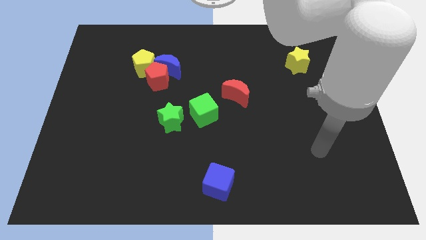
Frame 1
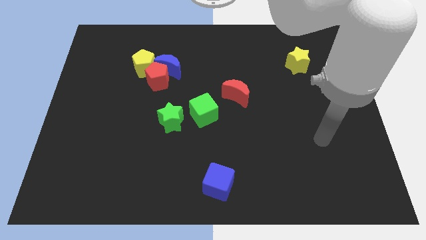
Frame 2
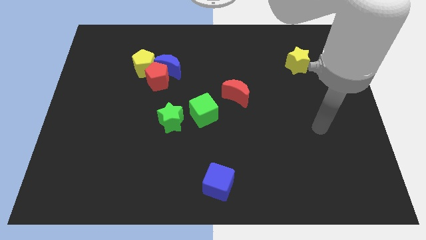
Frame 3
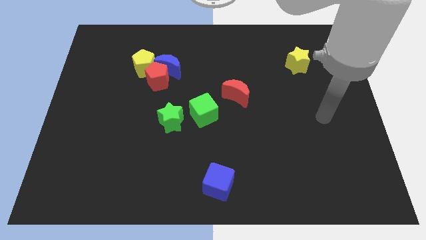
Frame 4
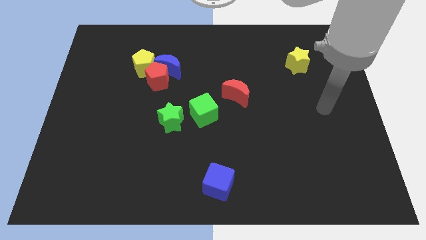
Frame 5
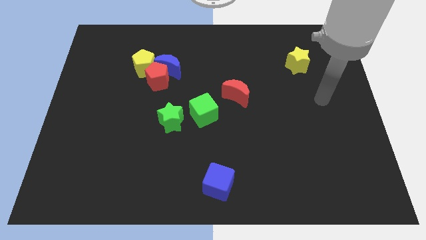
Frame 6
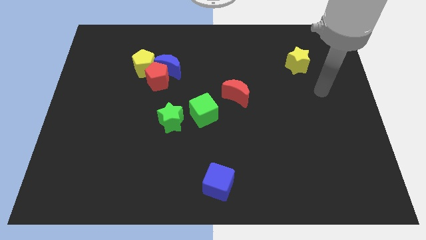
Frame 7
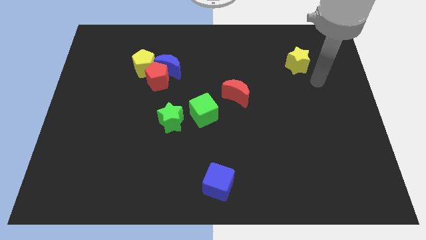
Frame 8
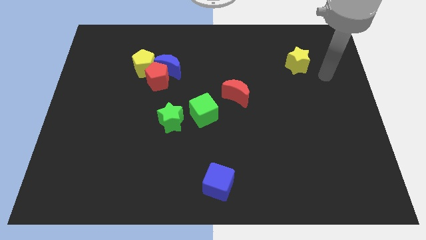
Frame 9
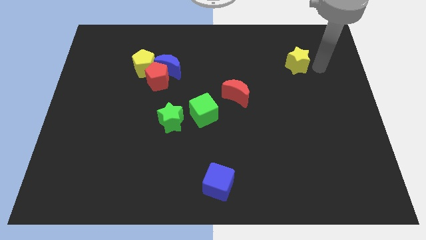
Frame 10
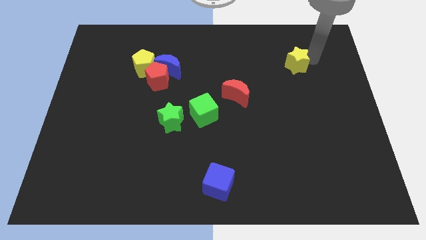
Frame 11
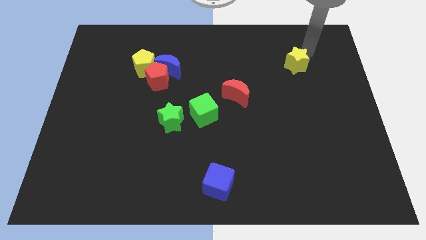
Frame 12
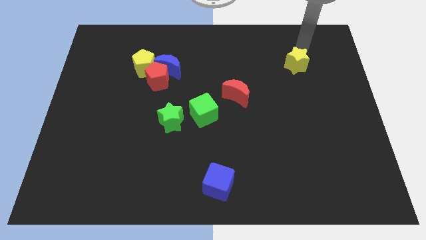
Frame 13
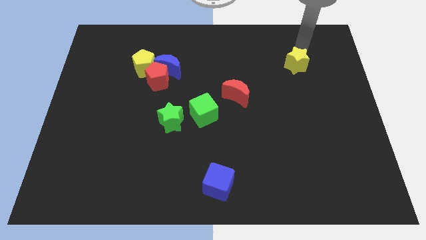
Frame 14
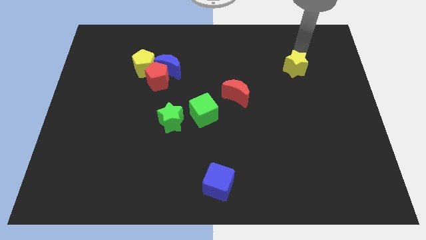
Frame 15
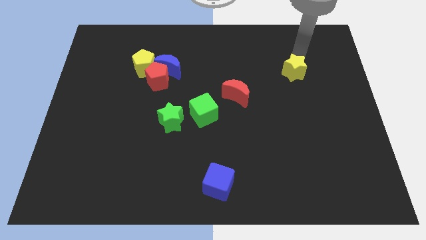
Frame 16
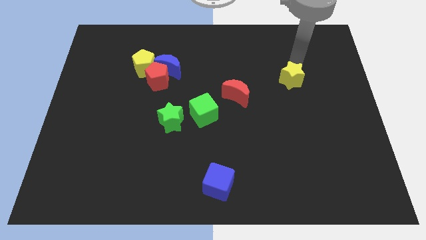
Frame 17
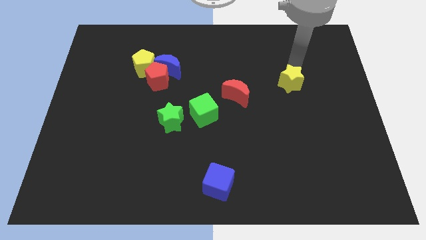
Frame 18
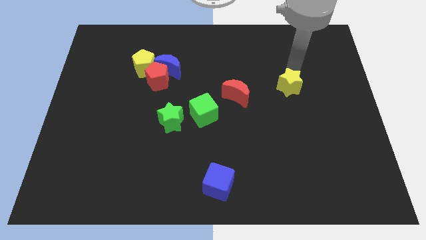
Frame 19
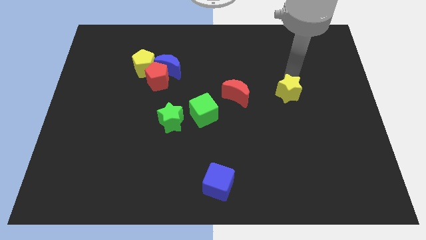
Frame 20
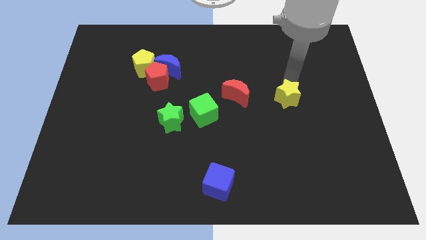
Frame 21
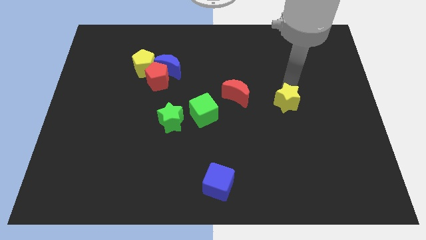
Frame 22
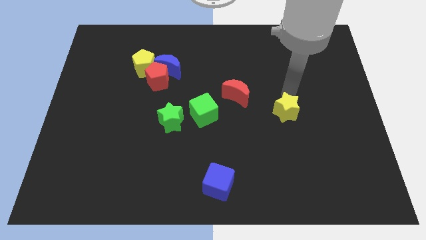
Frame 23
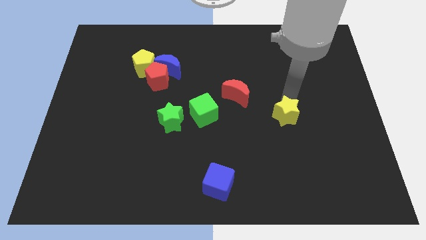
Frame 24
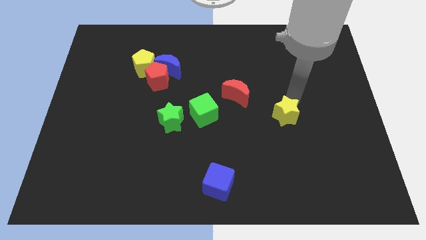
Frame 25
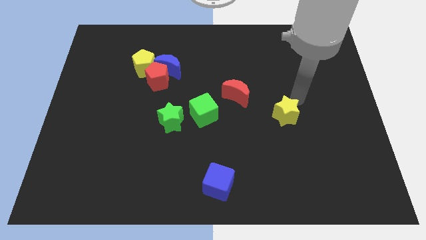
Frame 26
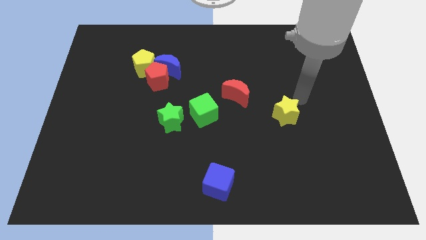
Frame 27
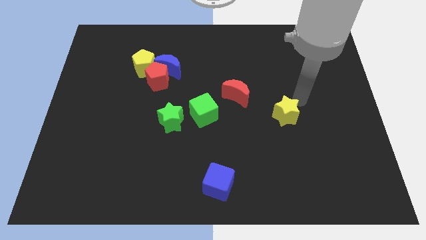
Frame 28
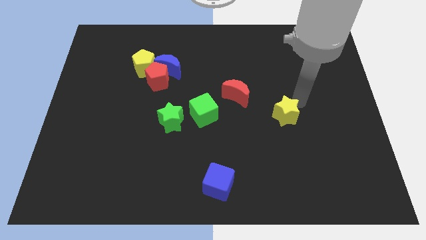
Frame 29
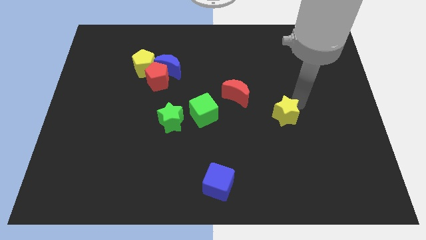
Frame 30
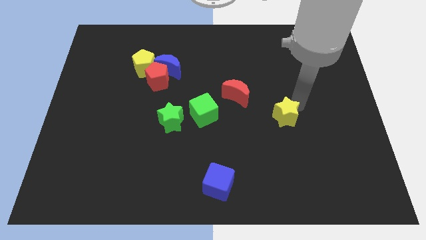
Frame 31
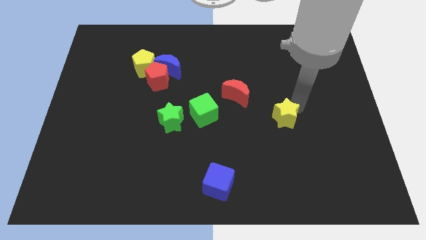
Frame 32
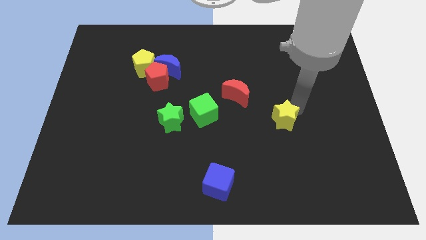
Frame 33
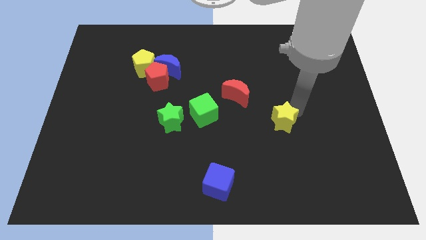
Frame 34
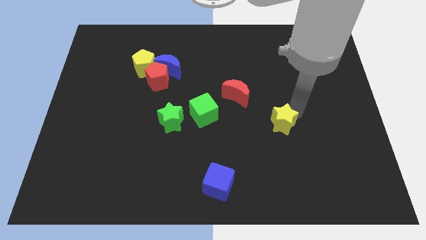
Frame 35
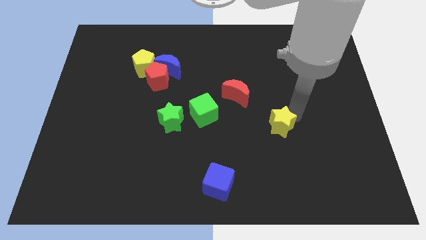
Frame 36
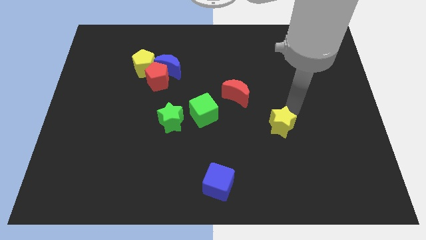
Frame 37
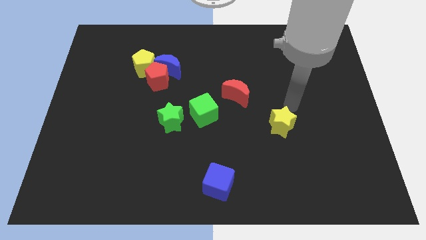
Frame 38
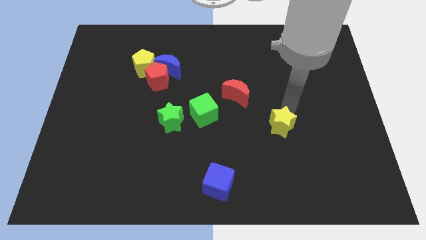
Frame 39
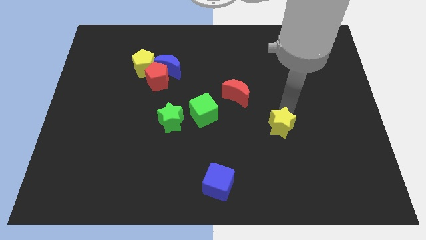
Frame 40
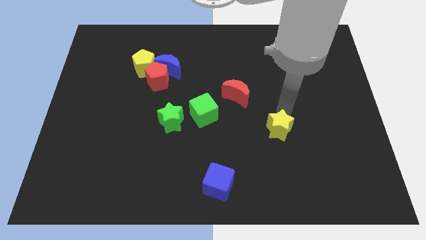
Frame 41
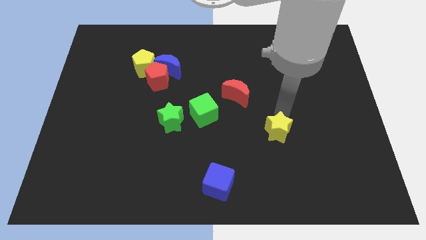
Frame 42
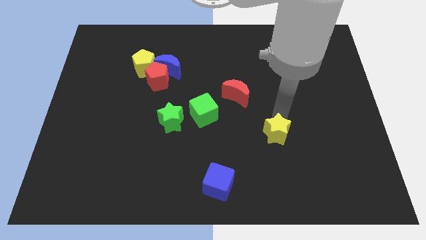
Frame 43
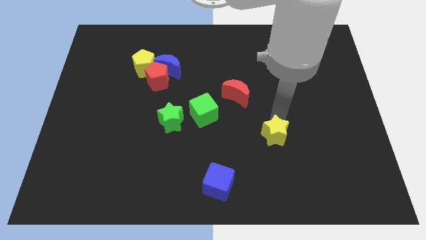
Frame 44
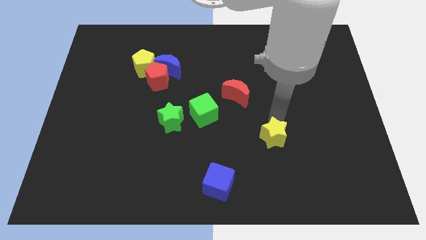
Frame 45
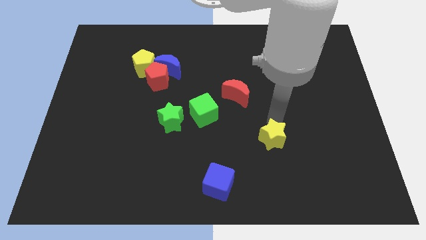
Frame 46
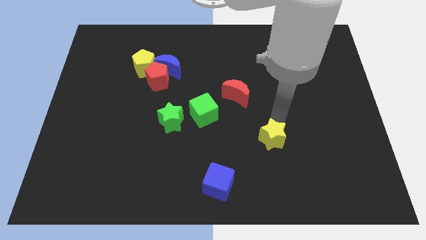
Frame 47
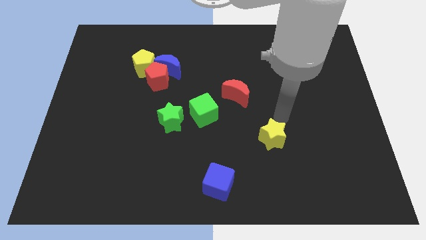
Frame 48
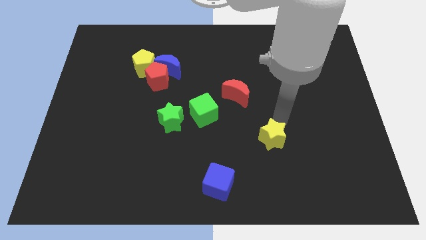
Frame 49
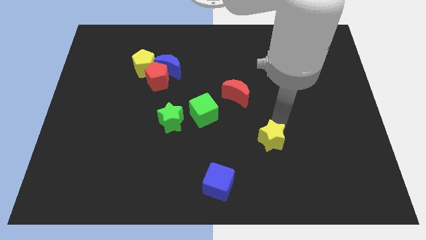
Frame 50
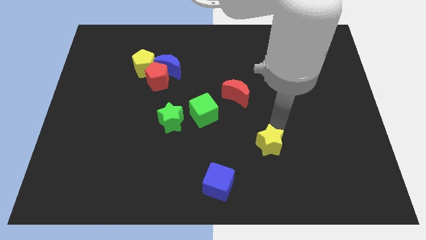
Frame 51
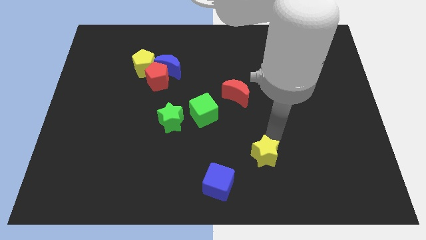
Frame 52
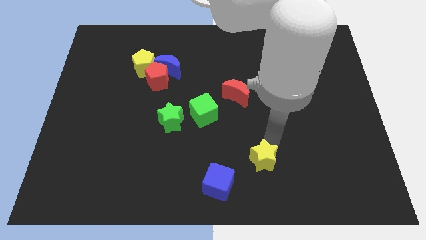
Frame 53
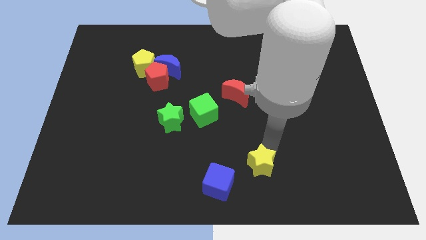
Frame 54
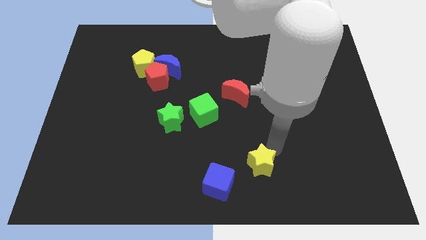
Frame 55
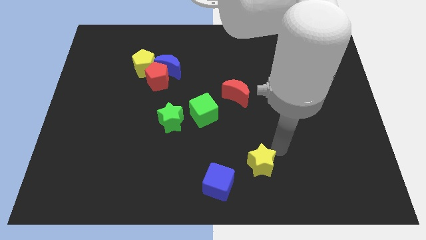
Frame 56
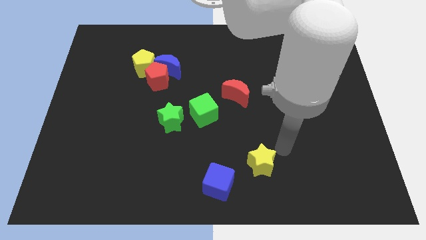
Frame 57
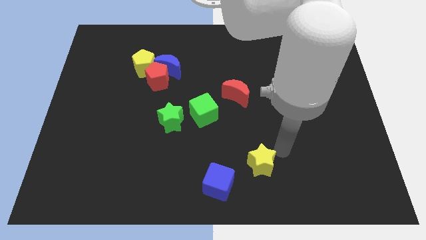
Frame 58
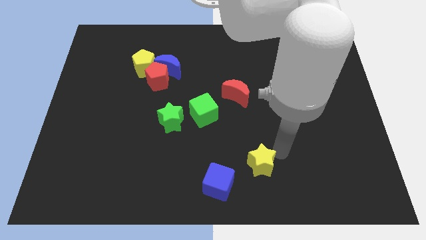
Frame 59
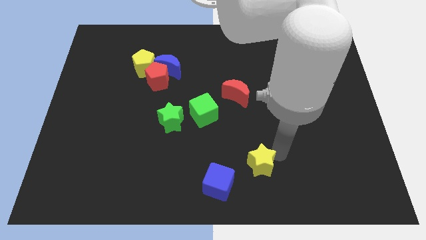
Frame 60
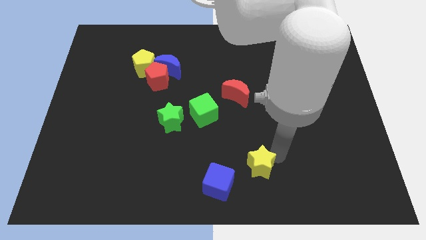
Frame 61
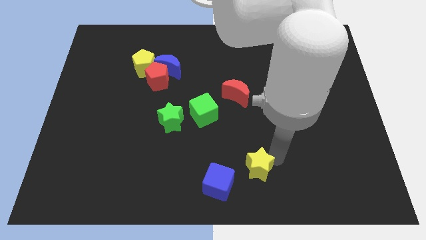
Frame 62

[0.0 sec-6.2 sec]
slide the yellow star to the bottom
